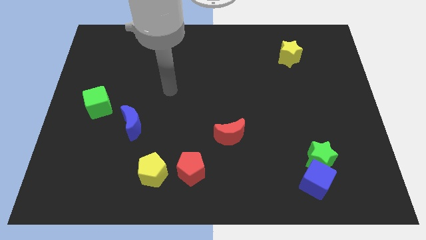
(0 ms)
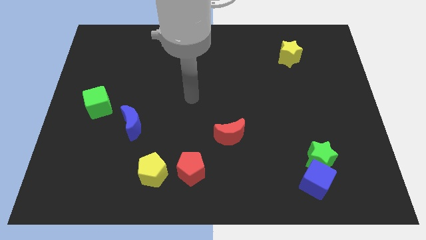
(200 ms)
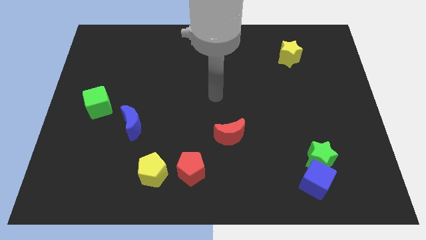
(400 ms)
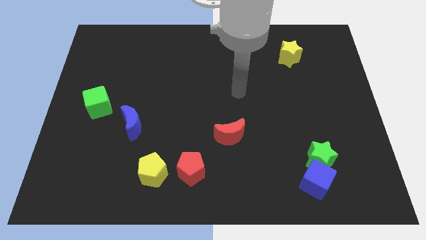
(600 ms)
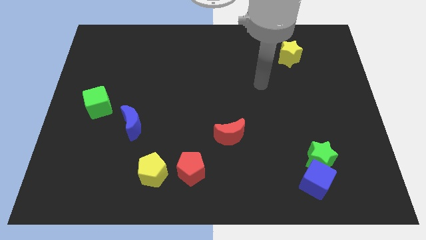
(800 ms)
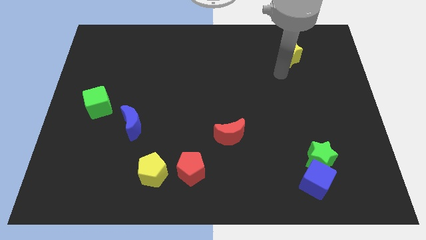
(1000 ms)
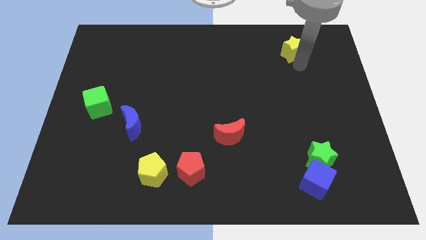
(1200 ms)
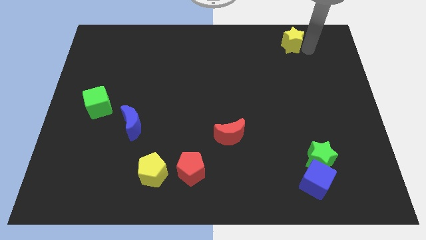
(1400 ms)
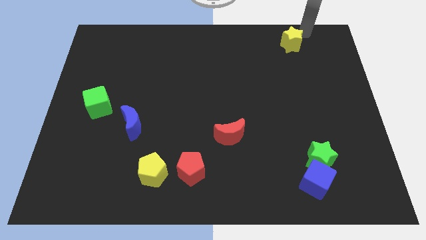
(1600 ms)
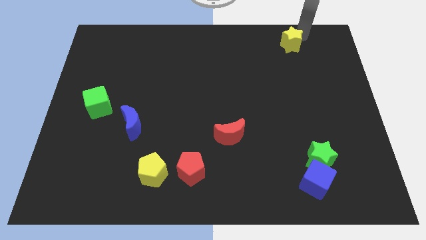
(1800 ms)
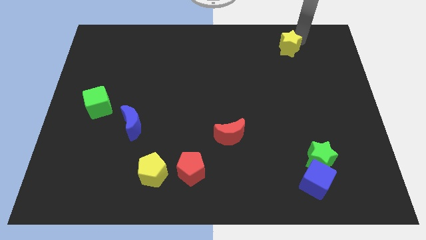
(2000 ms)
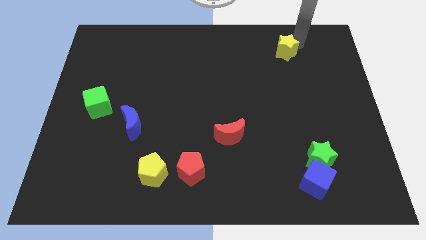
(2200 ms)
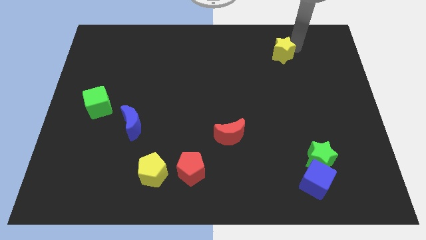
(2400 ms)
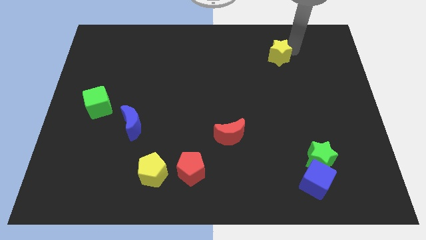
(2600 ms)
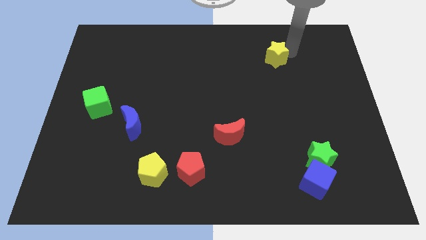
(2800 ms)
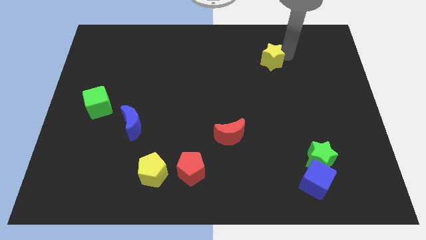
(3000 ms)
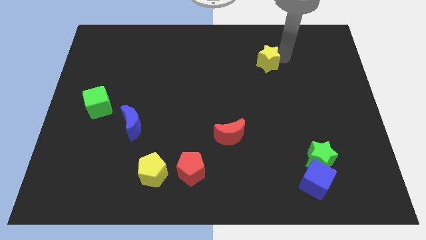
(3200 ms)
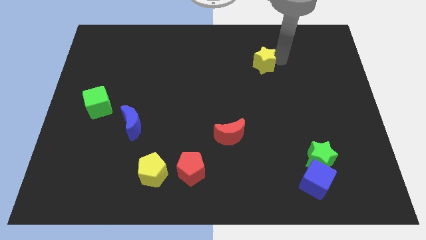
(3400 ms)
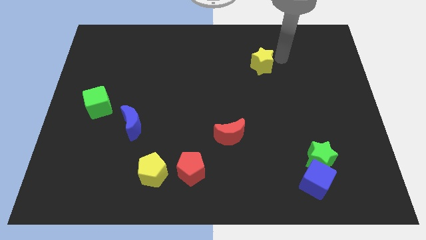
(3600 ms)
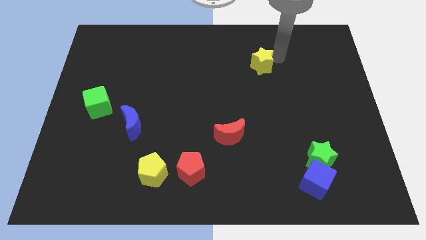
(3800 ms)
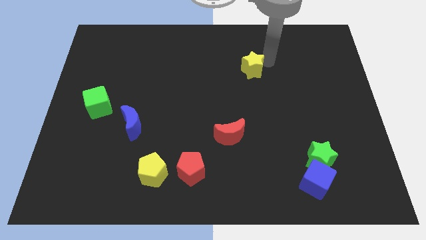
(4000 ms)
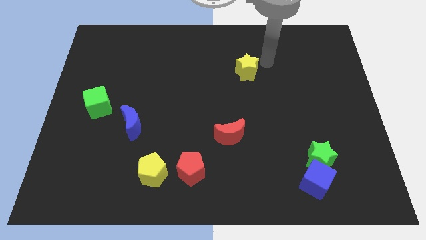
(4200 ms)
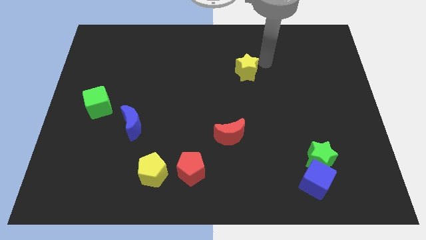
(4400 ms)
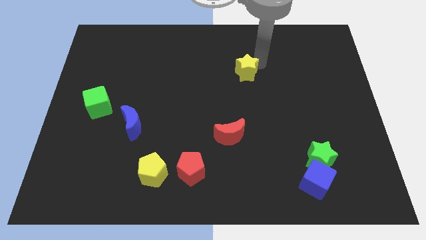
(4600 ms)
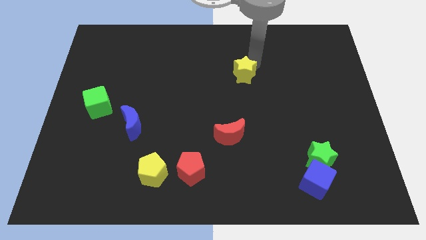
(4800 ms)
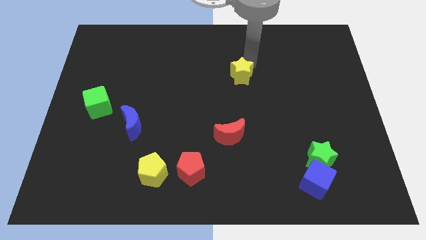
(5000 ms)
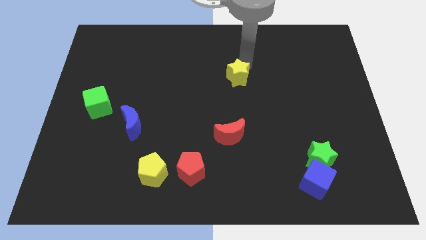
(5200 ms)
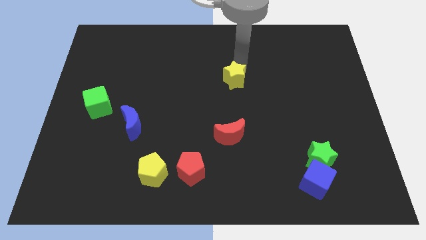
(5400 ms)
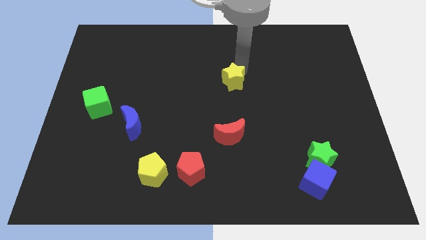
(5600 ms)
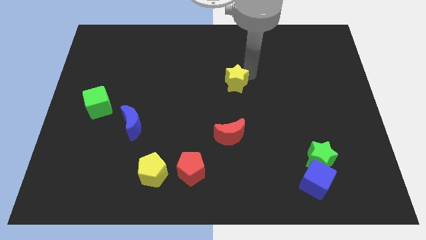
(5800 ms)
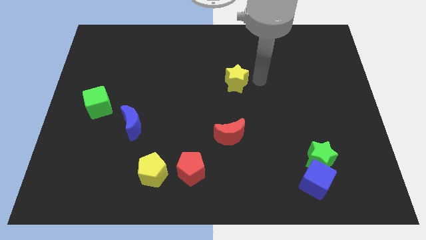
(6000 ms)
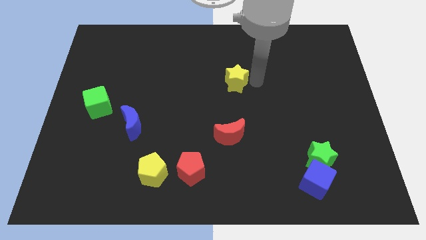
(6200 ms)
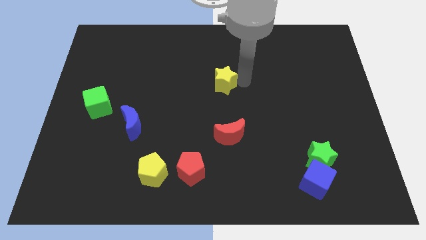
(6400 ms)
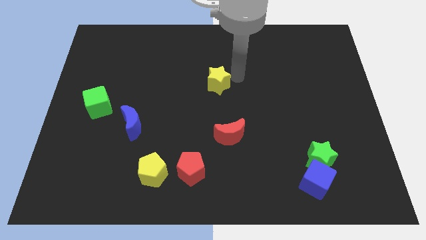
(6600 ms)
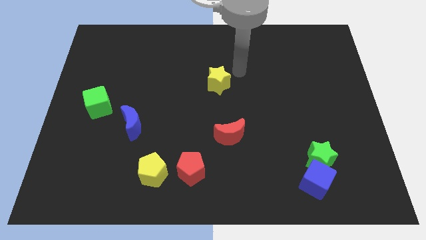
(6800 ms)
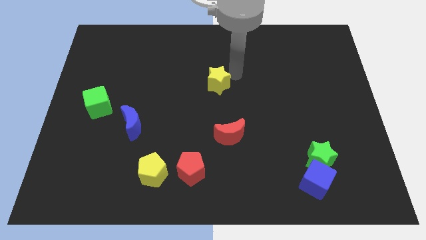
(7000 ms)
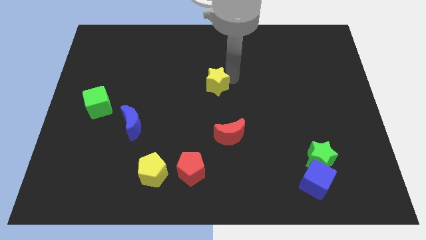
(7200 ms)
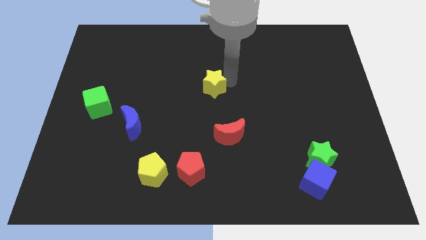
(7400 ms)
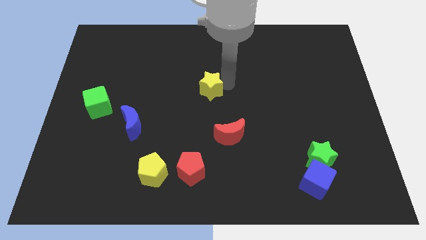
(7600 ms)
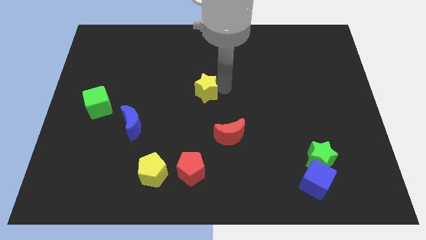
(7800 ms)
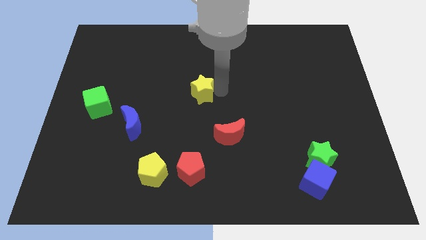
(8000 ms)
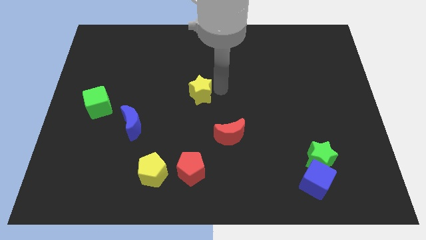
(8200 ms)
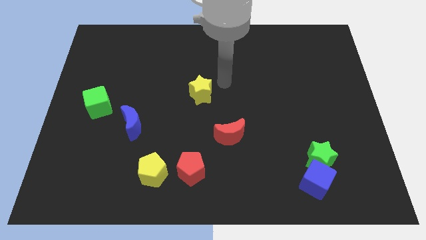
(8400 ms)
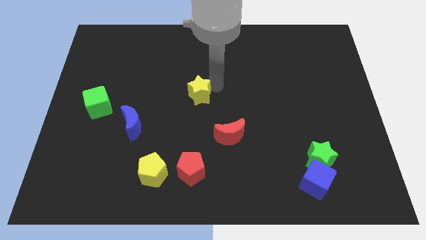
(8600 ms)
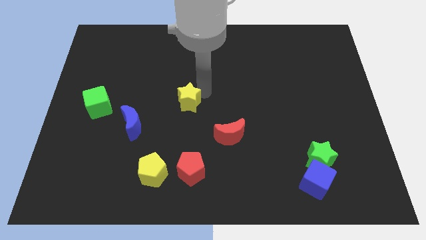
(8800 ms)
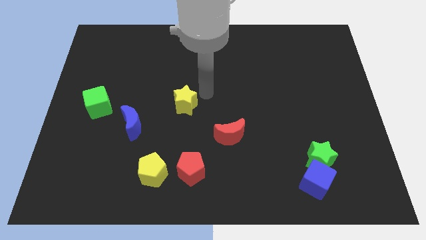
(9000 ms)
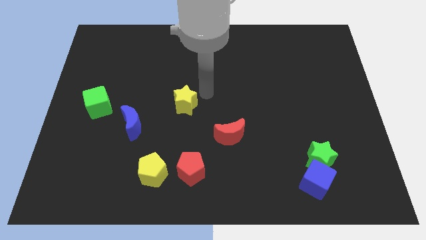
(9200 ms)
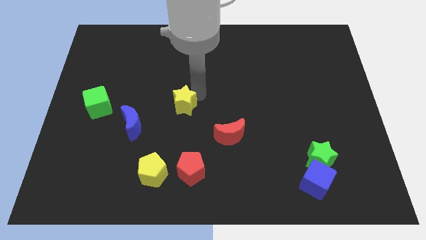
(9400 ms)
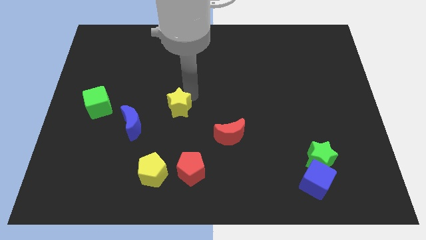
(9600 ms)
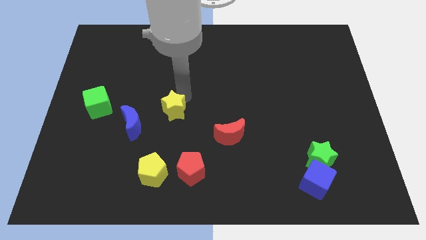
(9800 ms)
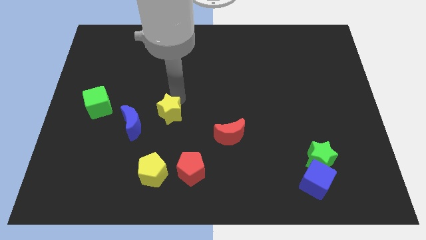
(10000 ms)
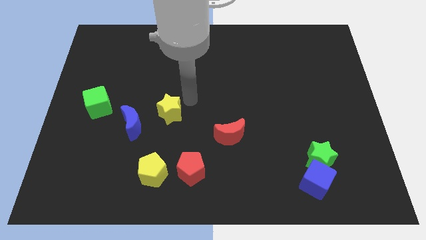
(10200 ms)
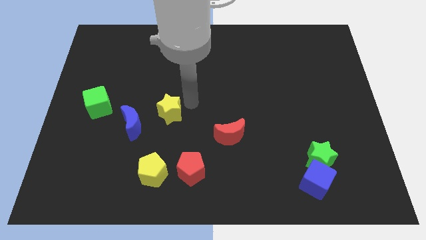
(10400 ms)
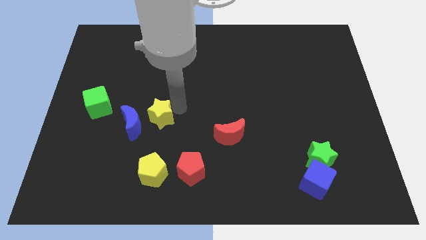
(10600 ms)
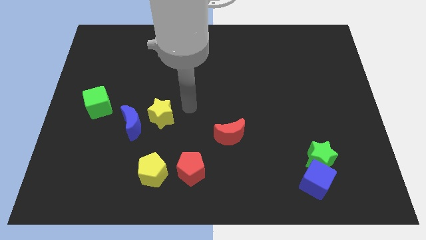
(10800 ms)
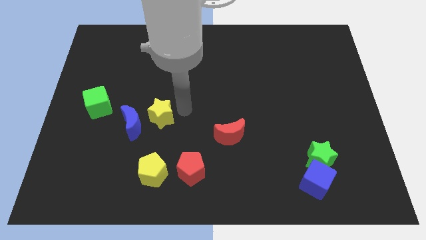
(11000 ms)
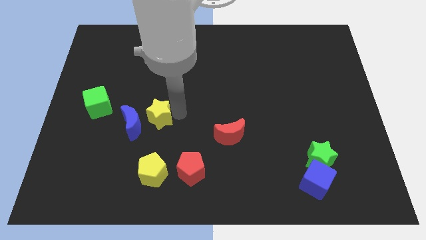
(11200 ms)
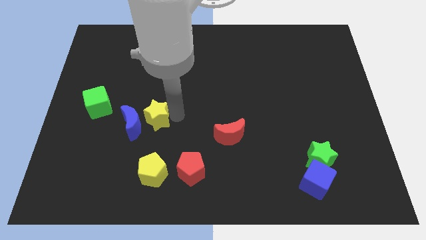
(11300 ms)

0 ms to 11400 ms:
move the yellow star to the blue moon

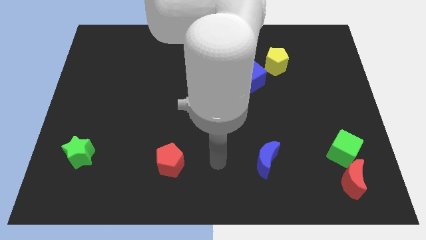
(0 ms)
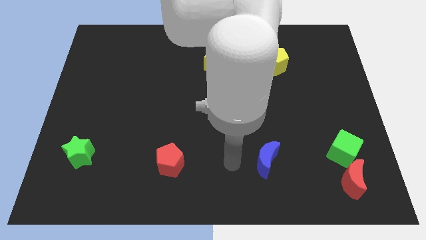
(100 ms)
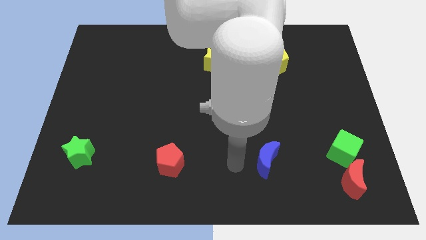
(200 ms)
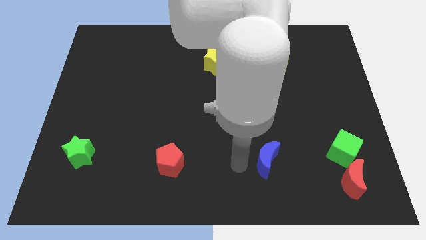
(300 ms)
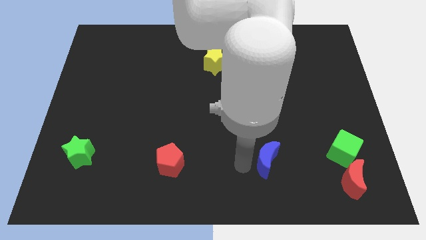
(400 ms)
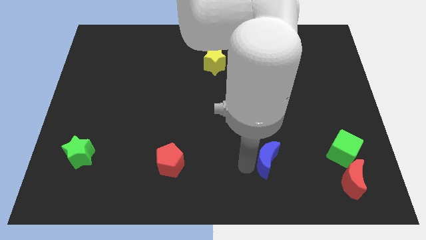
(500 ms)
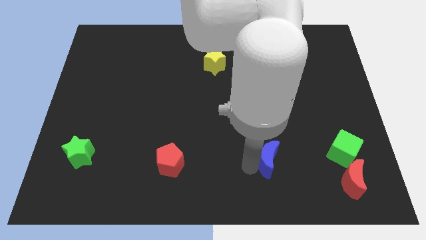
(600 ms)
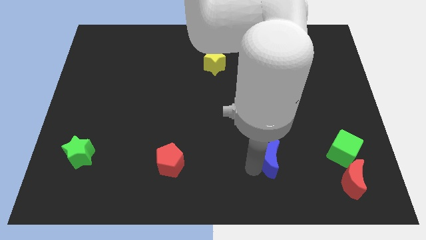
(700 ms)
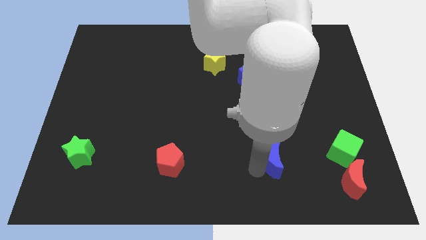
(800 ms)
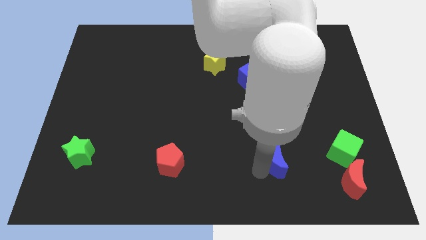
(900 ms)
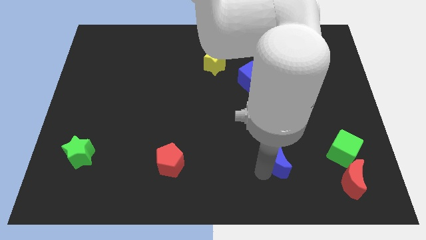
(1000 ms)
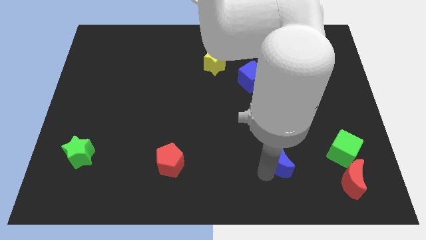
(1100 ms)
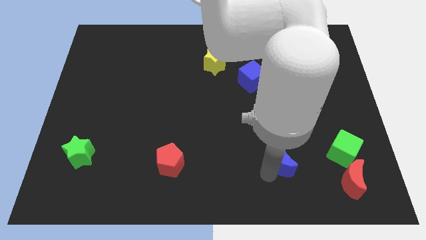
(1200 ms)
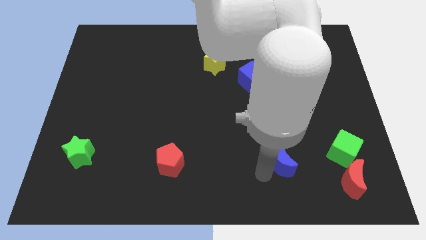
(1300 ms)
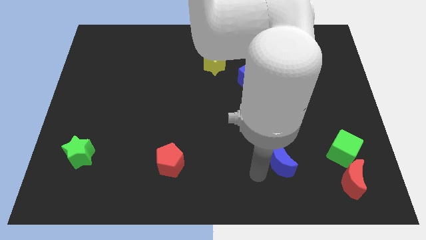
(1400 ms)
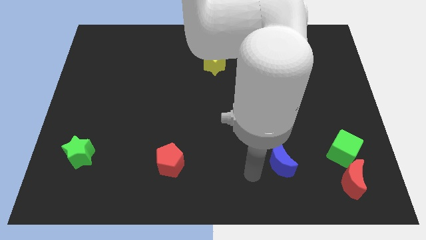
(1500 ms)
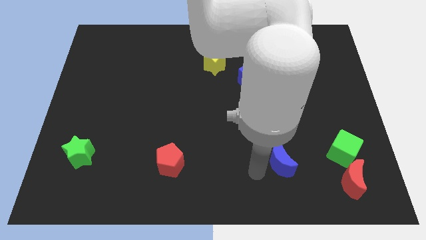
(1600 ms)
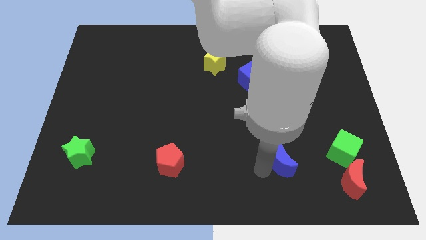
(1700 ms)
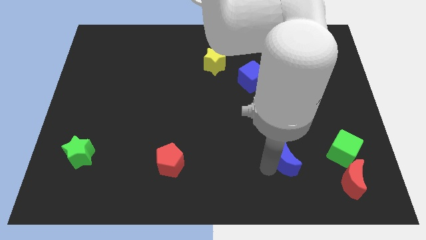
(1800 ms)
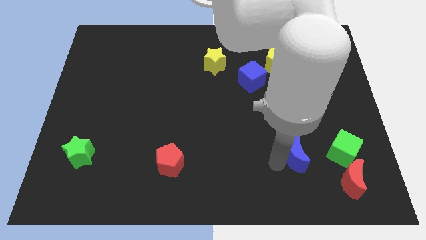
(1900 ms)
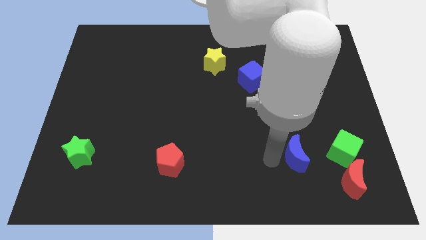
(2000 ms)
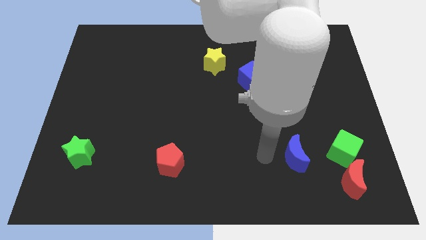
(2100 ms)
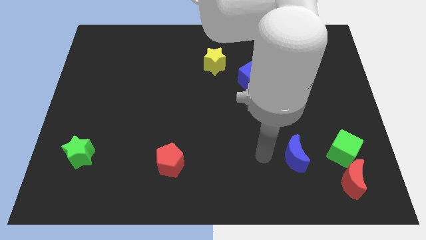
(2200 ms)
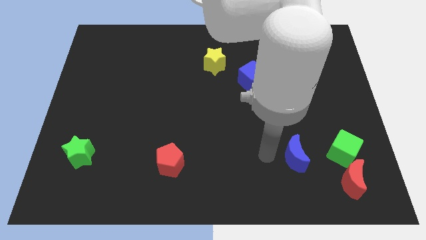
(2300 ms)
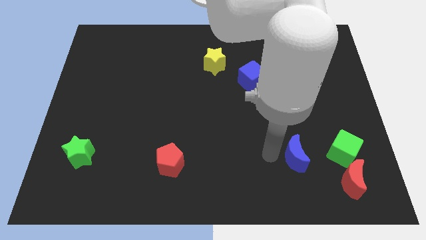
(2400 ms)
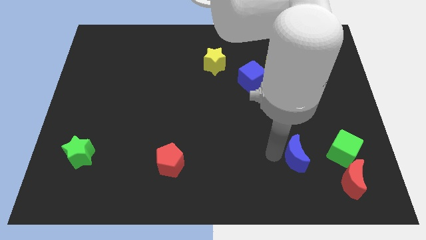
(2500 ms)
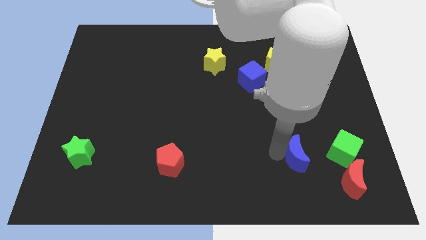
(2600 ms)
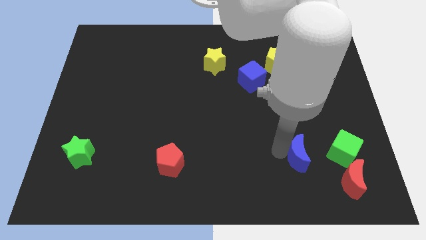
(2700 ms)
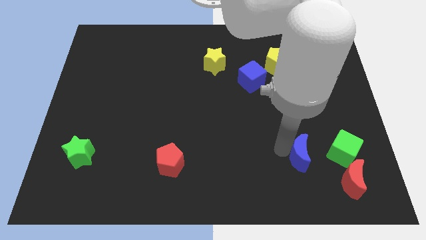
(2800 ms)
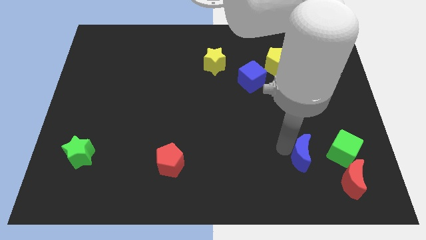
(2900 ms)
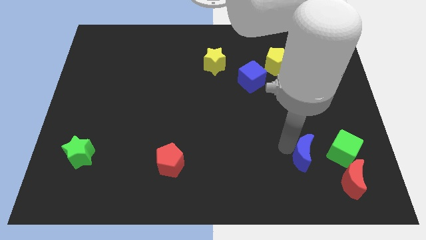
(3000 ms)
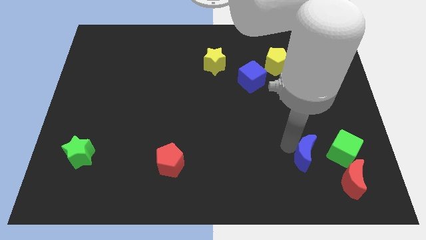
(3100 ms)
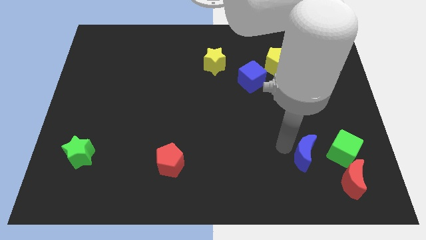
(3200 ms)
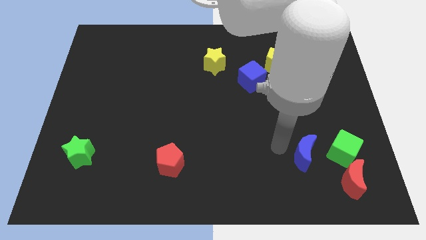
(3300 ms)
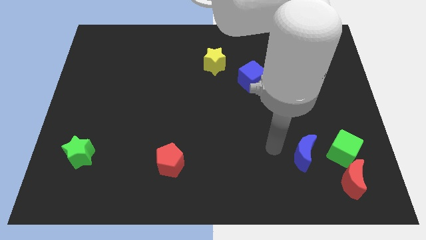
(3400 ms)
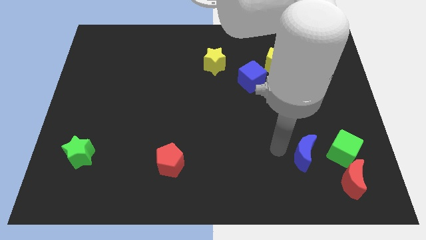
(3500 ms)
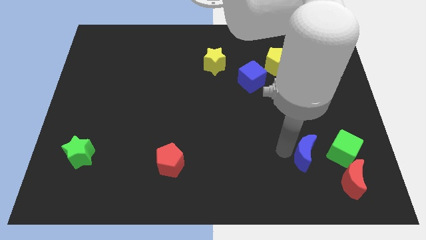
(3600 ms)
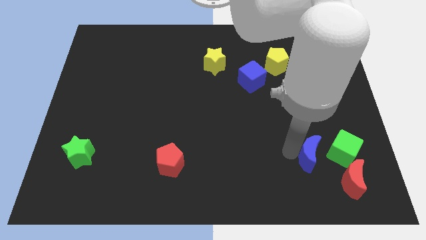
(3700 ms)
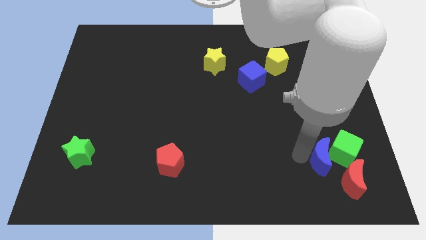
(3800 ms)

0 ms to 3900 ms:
push the blue moon close to the green cube
